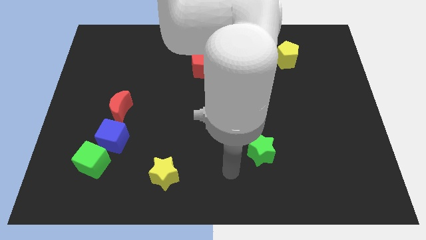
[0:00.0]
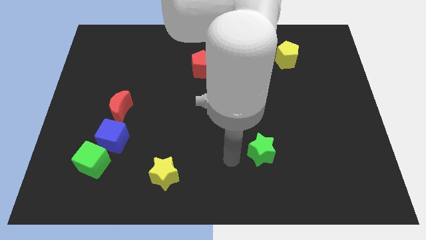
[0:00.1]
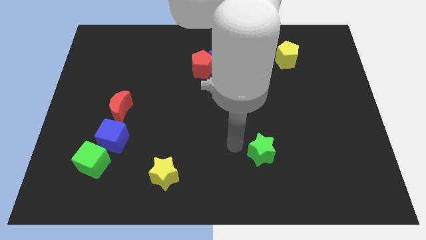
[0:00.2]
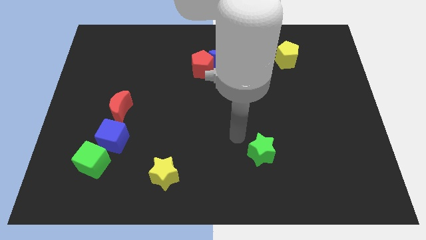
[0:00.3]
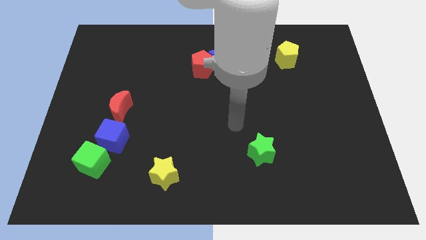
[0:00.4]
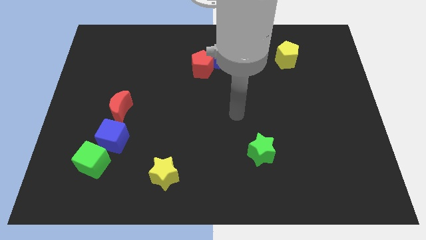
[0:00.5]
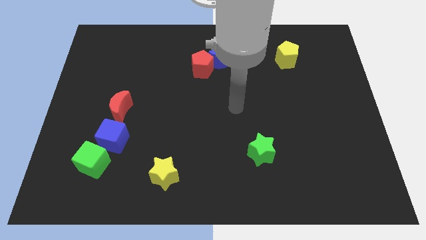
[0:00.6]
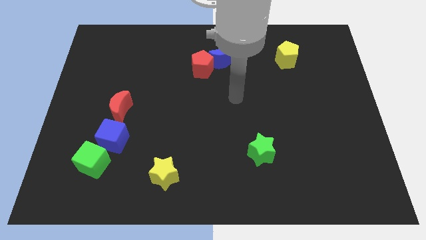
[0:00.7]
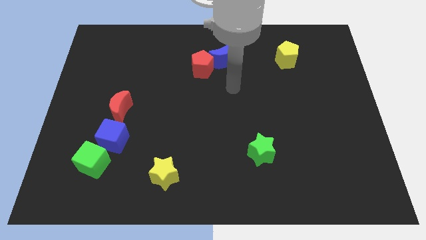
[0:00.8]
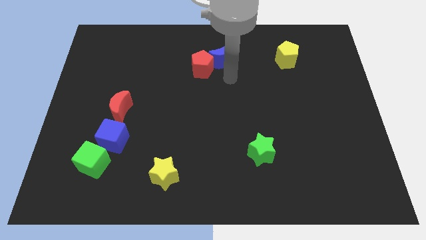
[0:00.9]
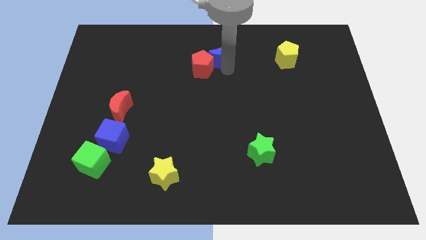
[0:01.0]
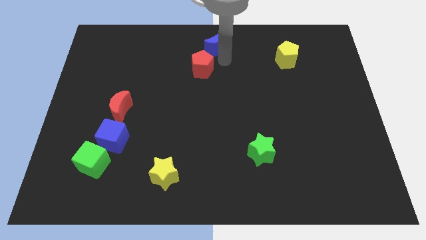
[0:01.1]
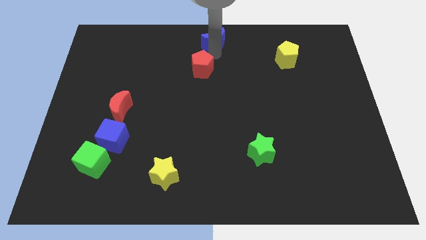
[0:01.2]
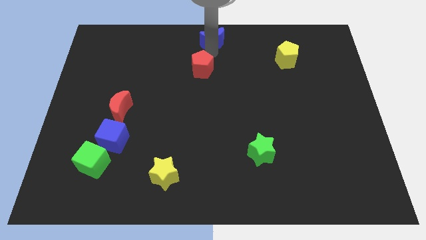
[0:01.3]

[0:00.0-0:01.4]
move the red pentagon away from the blue moon

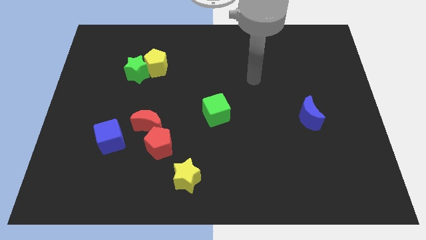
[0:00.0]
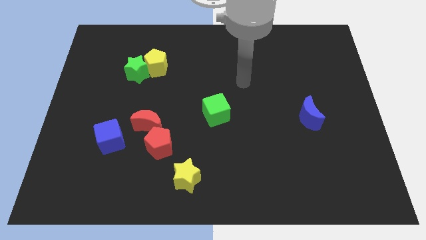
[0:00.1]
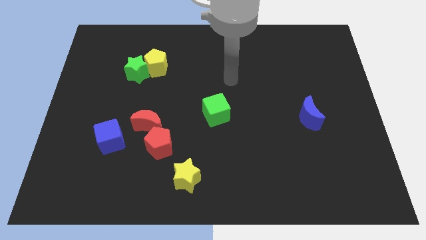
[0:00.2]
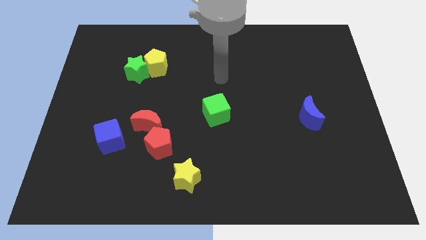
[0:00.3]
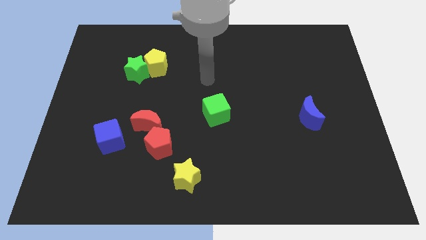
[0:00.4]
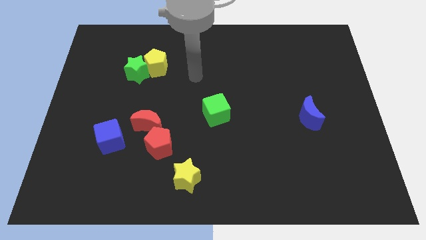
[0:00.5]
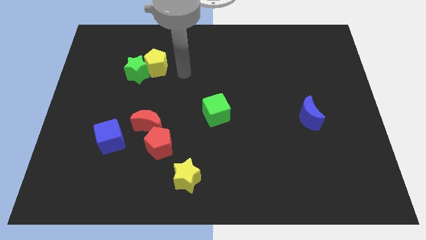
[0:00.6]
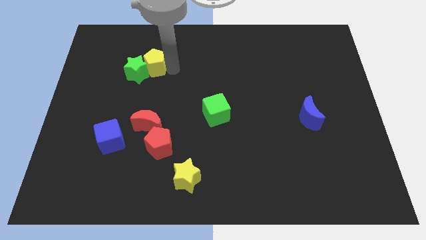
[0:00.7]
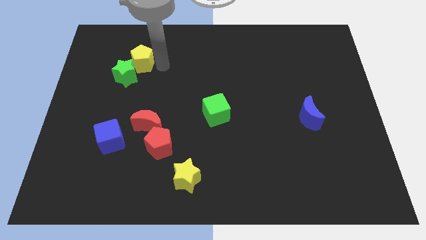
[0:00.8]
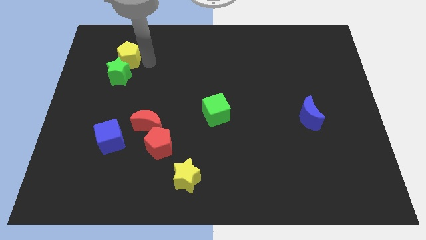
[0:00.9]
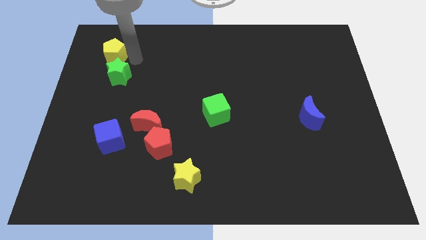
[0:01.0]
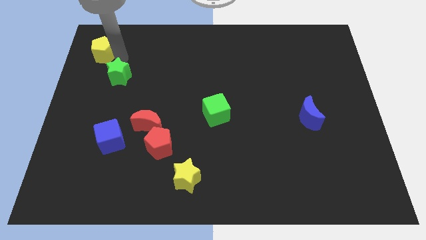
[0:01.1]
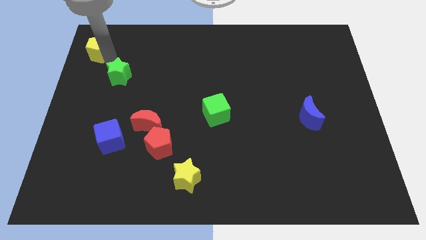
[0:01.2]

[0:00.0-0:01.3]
move the green star away from the yellow pentagon

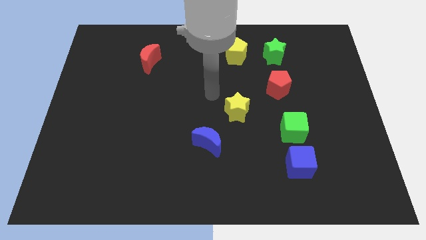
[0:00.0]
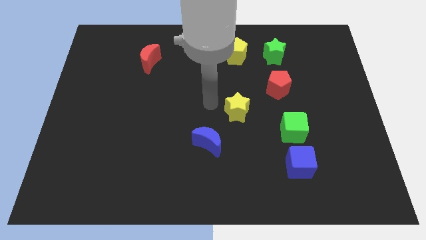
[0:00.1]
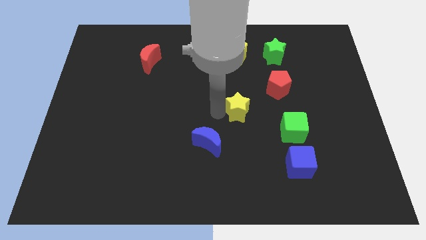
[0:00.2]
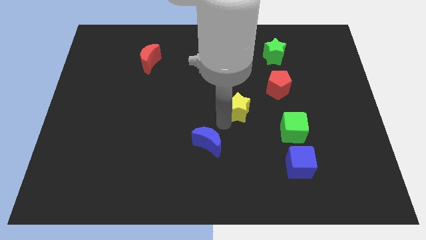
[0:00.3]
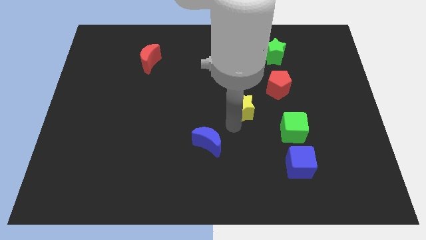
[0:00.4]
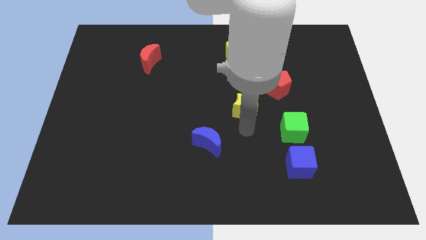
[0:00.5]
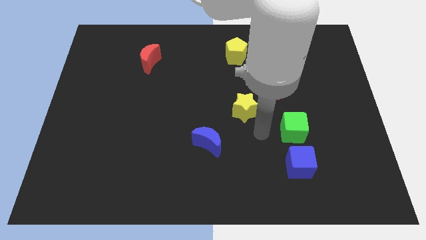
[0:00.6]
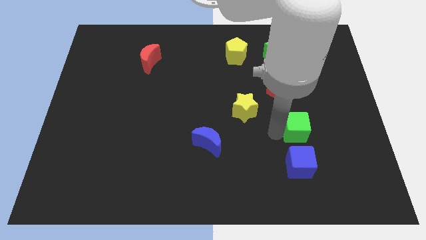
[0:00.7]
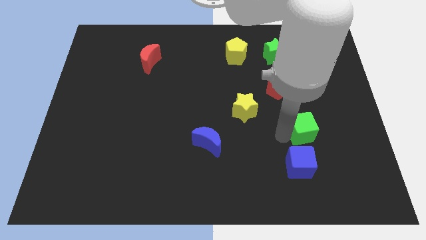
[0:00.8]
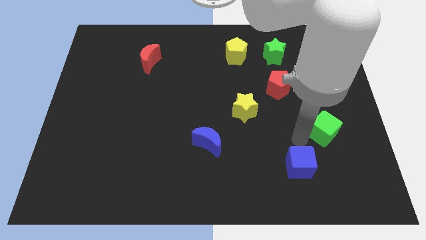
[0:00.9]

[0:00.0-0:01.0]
move the blue cube away from the green cube

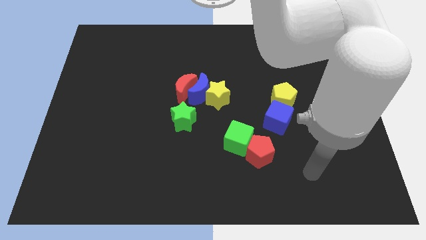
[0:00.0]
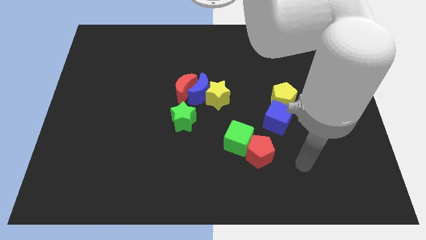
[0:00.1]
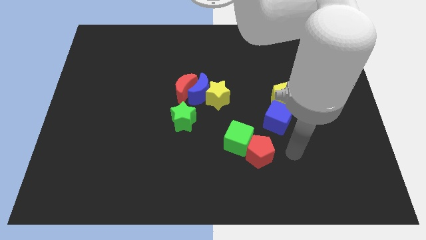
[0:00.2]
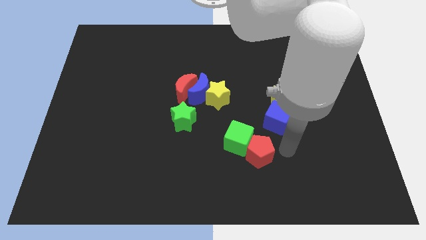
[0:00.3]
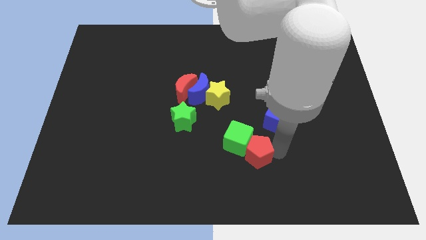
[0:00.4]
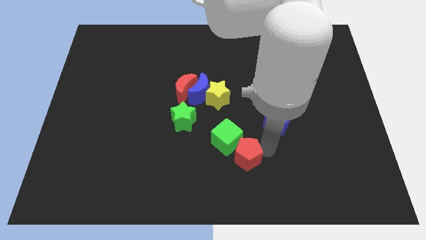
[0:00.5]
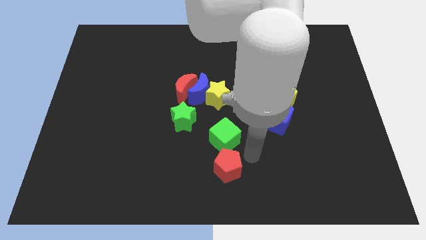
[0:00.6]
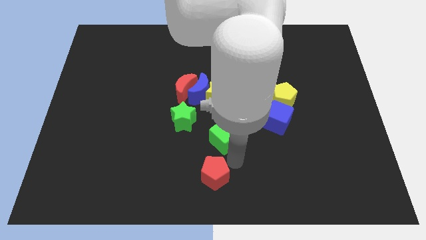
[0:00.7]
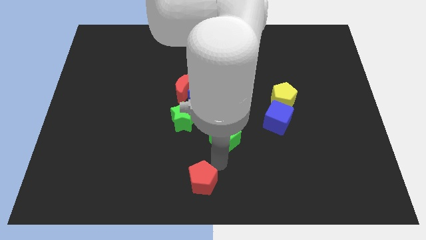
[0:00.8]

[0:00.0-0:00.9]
separate the green cube from the red pentagon

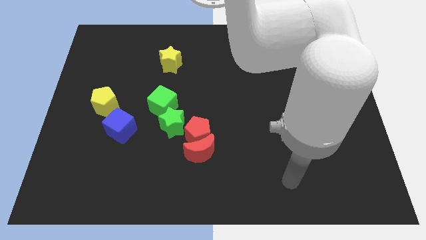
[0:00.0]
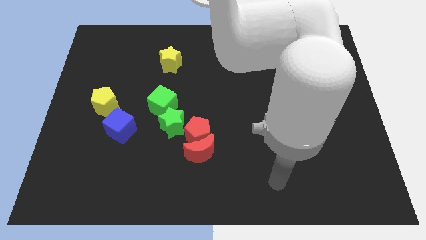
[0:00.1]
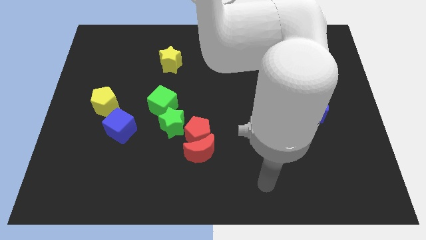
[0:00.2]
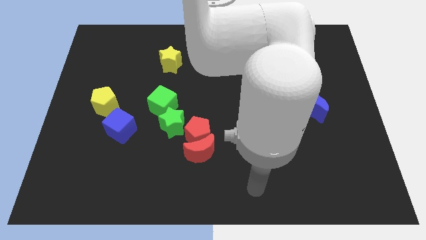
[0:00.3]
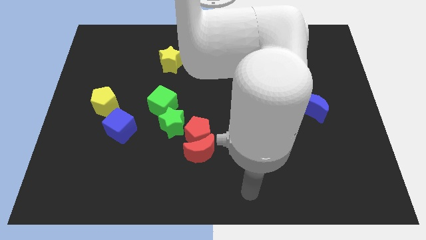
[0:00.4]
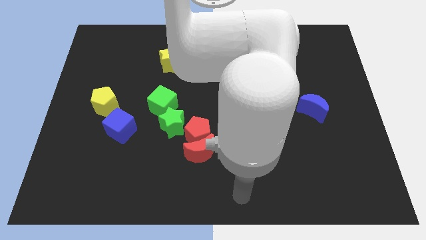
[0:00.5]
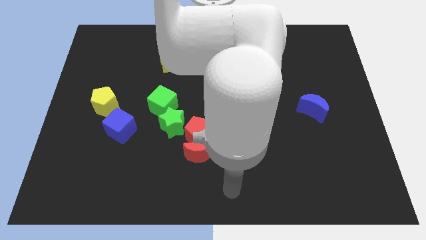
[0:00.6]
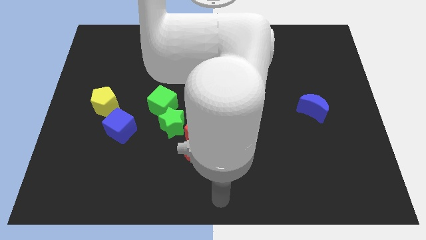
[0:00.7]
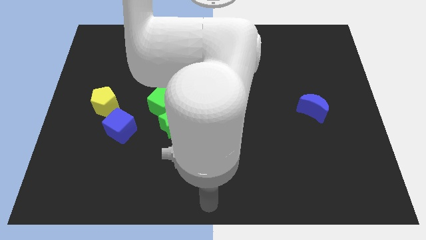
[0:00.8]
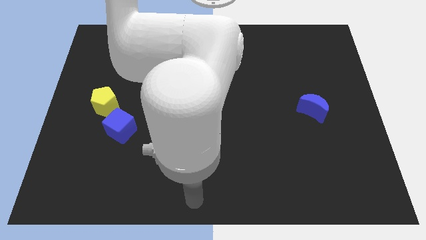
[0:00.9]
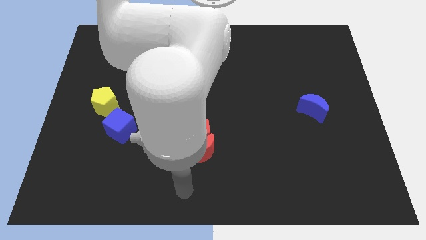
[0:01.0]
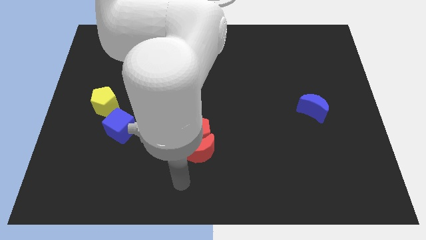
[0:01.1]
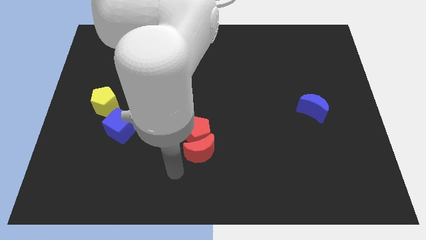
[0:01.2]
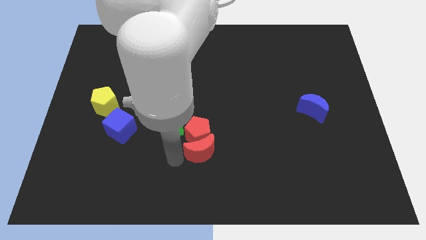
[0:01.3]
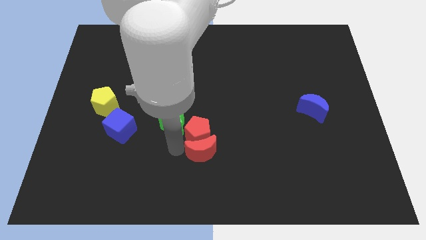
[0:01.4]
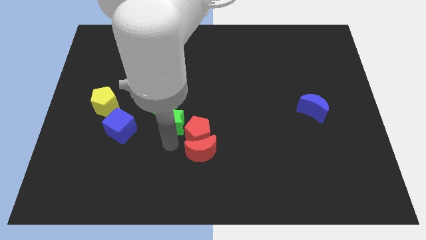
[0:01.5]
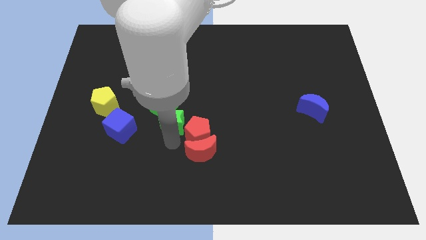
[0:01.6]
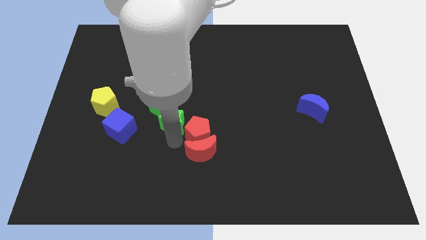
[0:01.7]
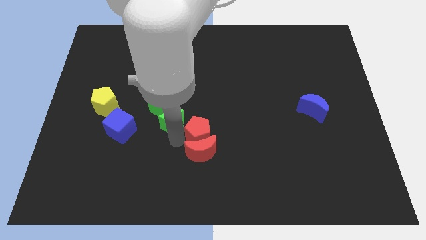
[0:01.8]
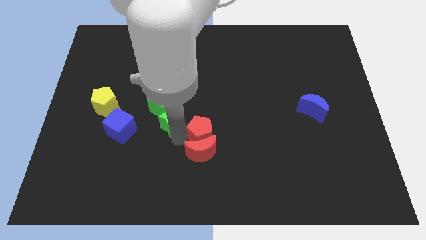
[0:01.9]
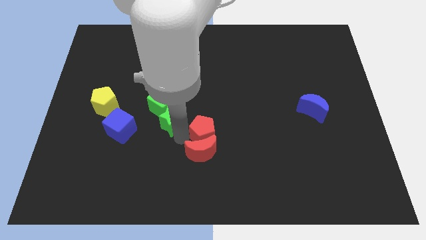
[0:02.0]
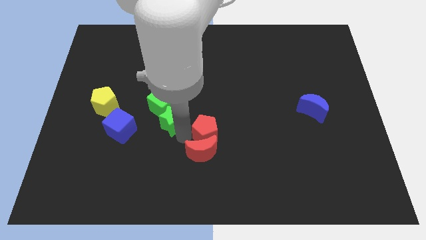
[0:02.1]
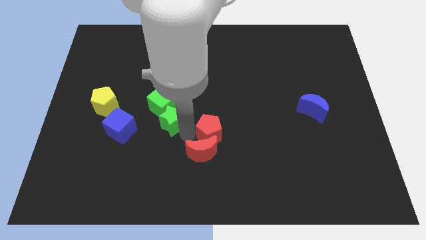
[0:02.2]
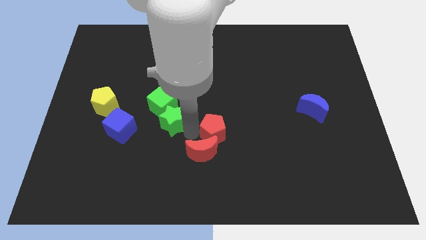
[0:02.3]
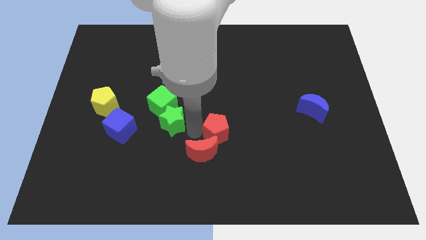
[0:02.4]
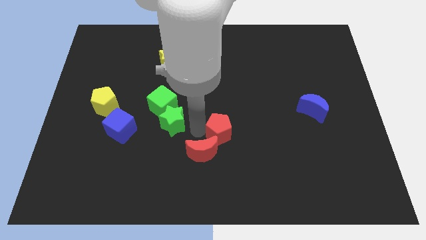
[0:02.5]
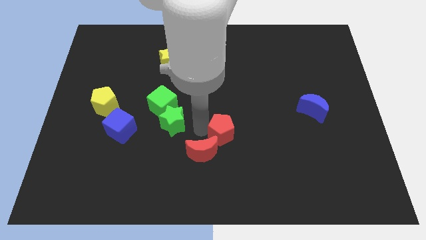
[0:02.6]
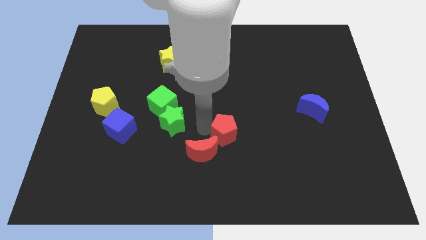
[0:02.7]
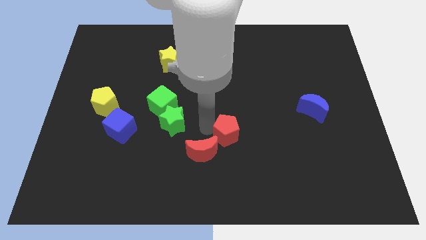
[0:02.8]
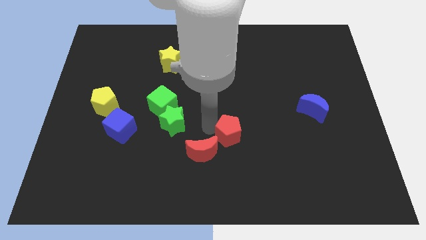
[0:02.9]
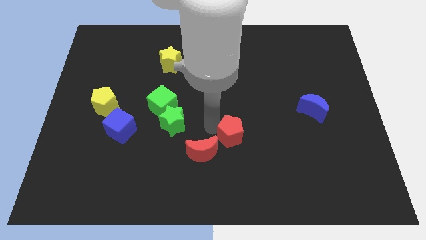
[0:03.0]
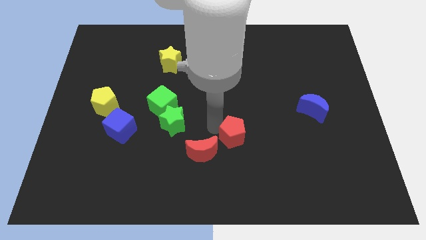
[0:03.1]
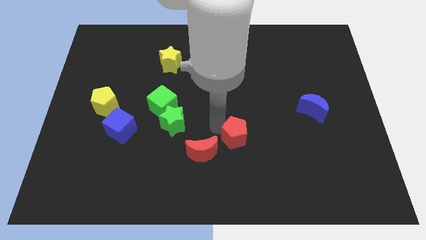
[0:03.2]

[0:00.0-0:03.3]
move the red pentagon away from the red moon and green star

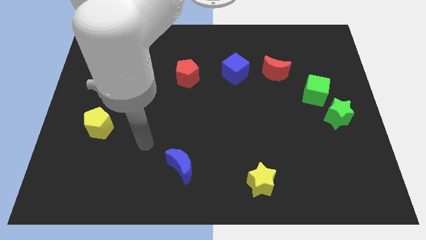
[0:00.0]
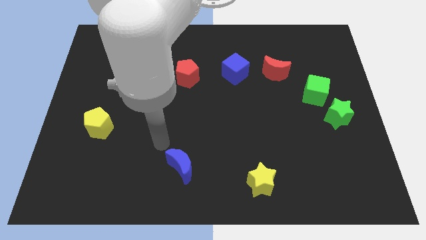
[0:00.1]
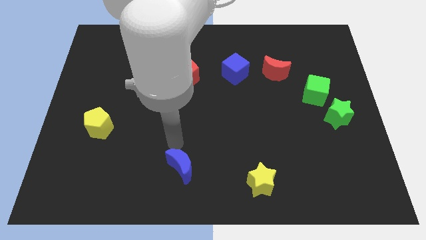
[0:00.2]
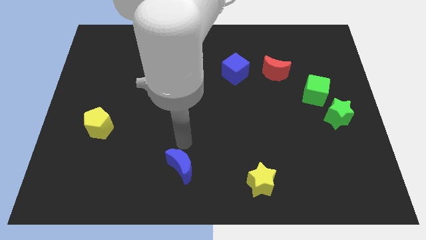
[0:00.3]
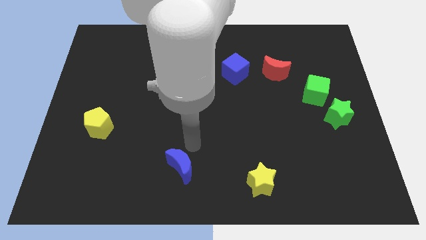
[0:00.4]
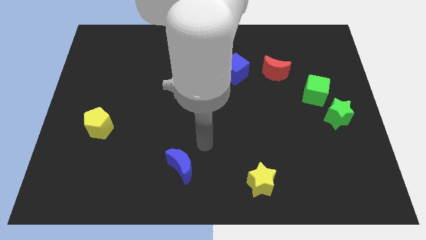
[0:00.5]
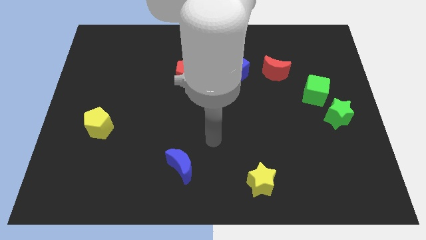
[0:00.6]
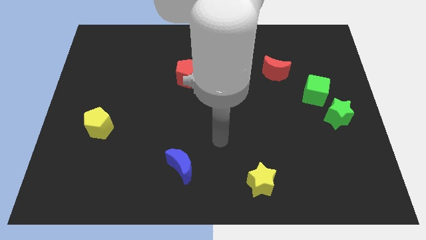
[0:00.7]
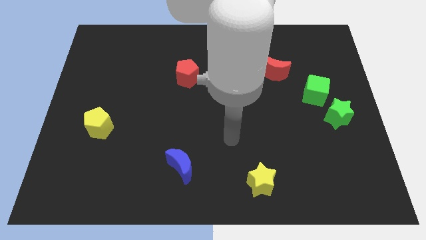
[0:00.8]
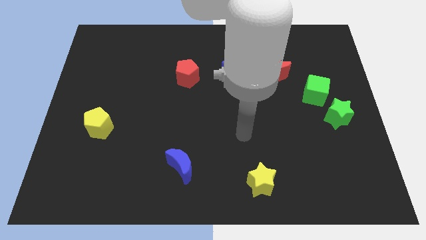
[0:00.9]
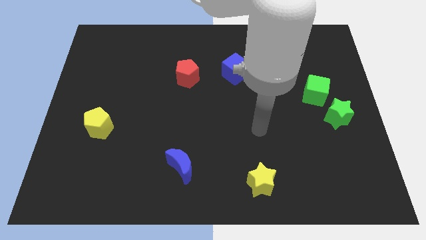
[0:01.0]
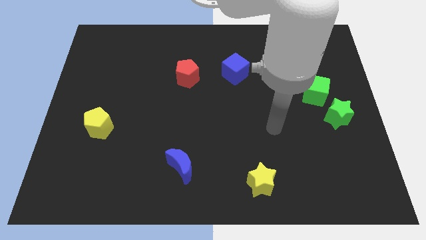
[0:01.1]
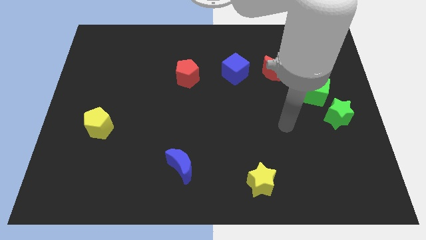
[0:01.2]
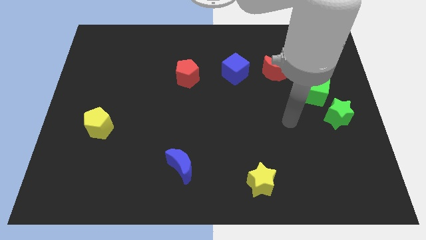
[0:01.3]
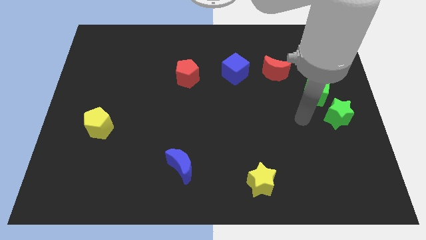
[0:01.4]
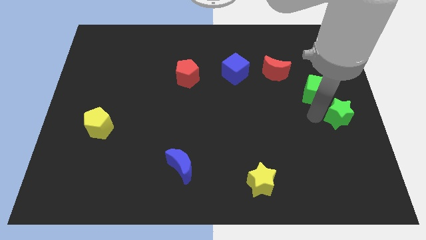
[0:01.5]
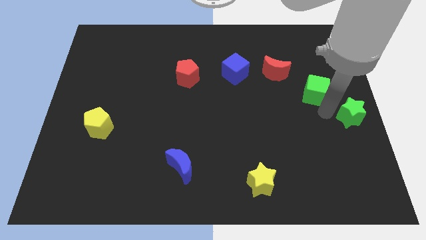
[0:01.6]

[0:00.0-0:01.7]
pull the green cube apart from the green star
